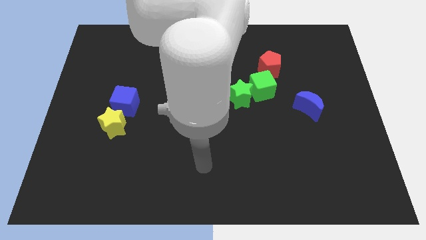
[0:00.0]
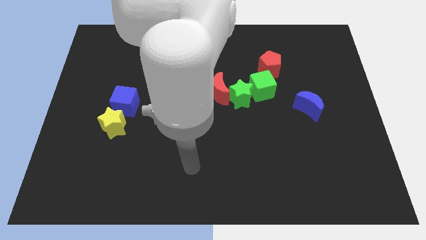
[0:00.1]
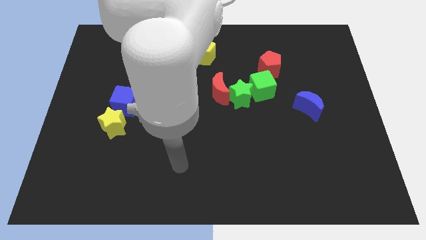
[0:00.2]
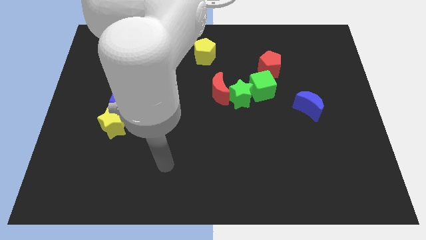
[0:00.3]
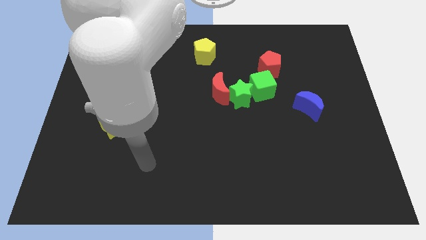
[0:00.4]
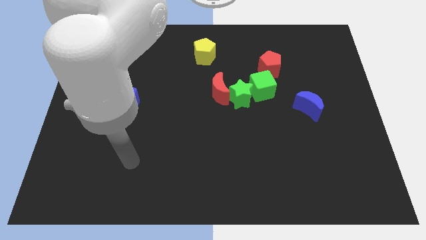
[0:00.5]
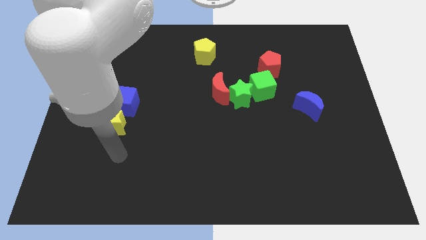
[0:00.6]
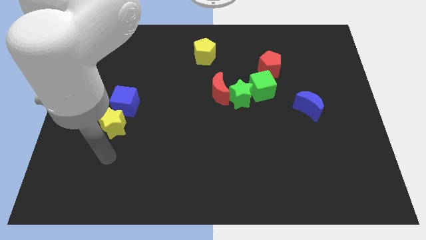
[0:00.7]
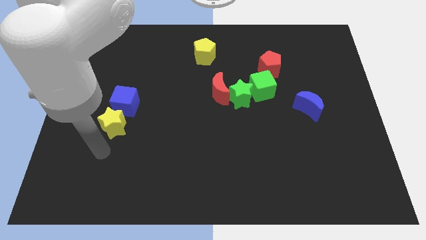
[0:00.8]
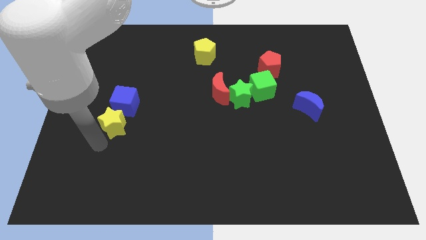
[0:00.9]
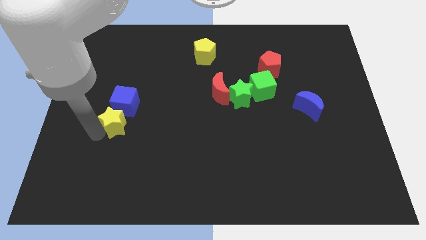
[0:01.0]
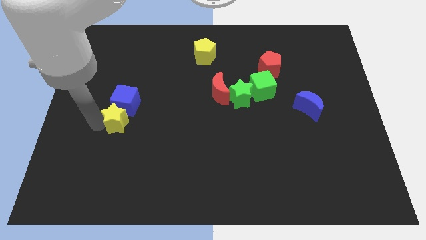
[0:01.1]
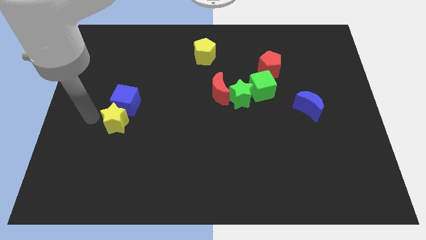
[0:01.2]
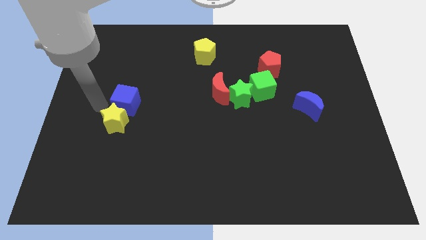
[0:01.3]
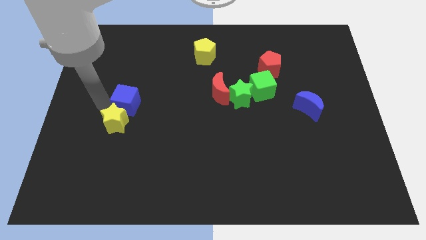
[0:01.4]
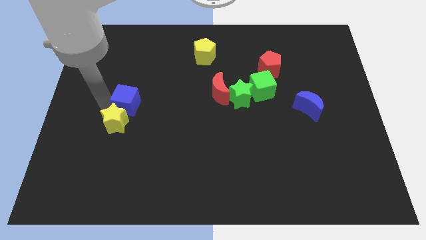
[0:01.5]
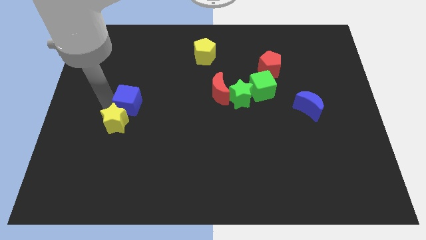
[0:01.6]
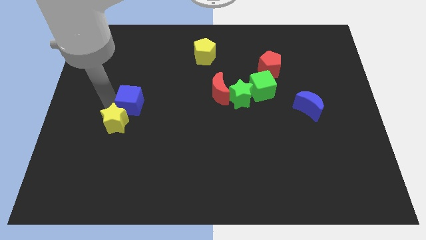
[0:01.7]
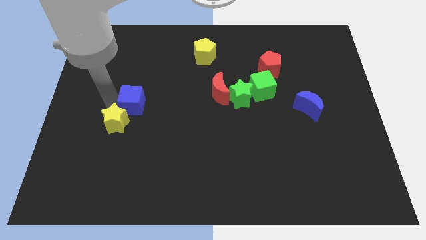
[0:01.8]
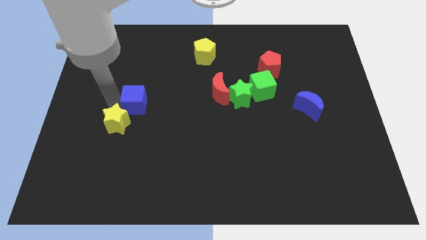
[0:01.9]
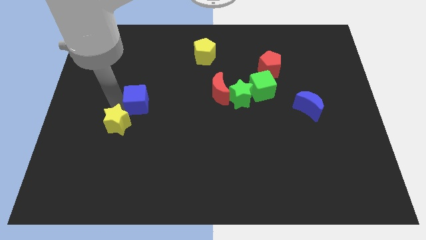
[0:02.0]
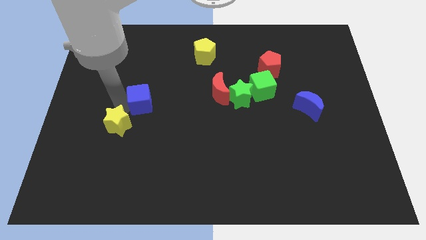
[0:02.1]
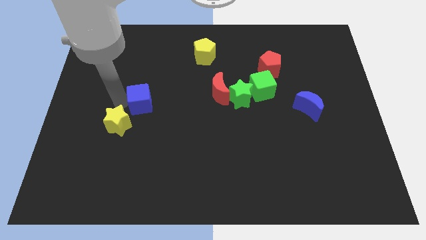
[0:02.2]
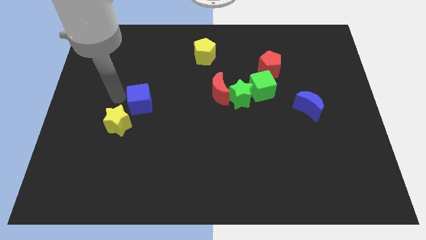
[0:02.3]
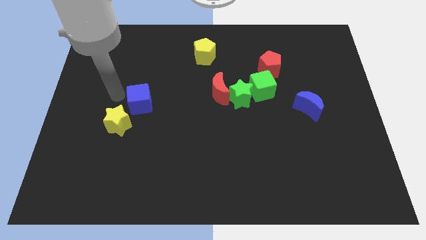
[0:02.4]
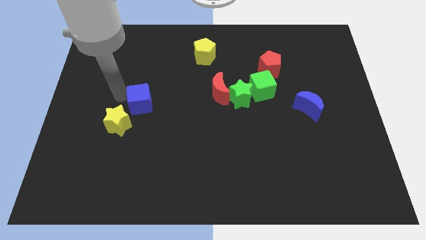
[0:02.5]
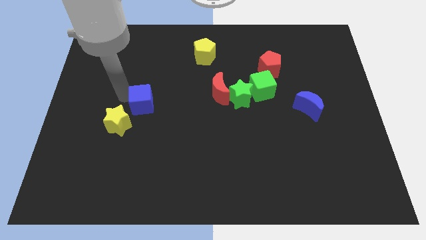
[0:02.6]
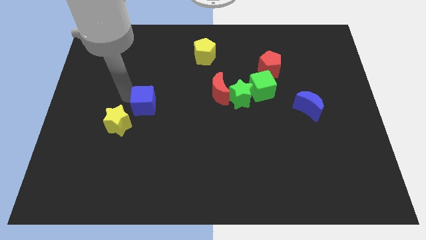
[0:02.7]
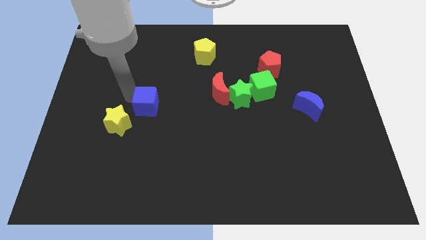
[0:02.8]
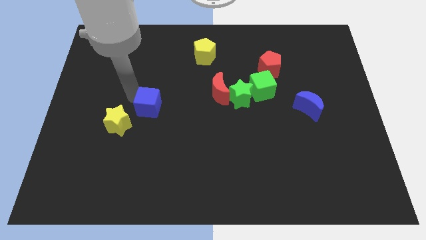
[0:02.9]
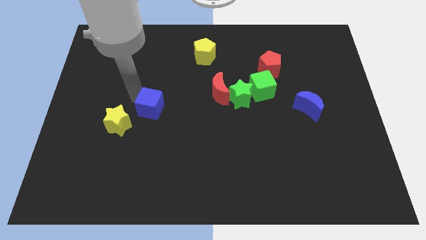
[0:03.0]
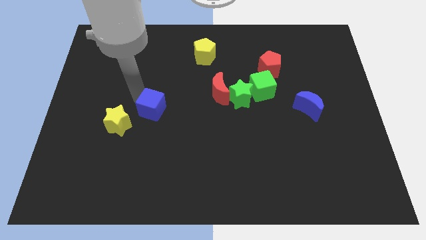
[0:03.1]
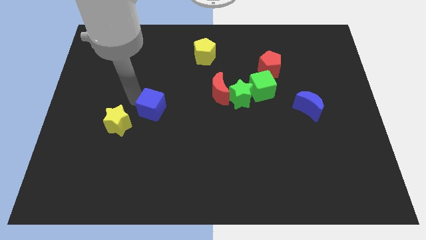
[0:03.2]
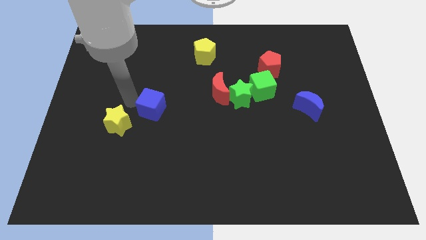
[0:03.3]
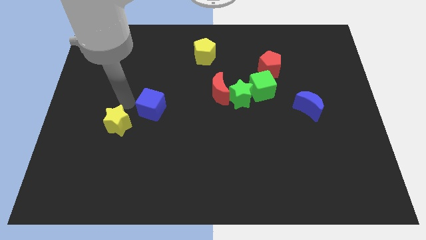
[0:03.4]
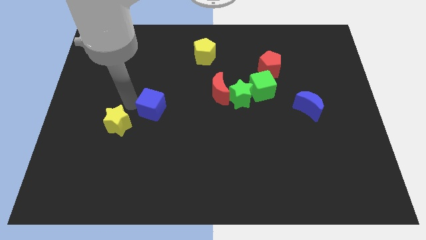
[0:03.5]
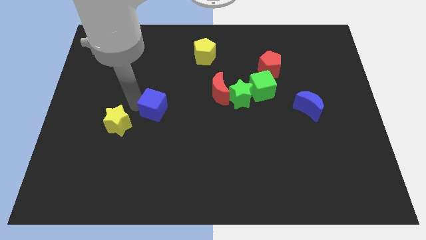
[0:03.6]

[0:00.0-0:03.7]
move the blue cube a bit right

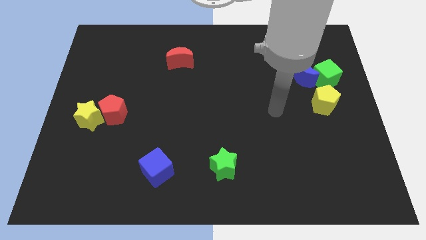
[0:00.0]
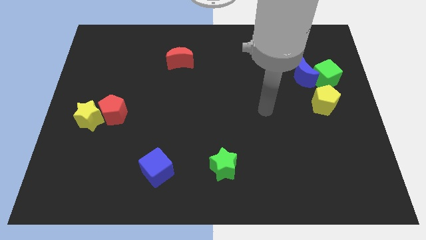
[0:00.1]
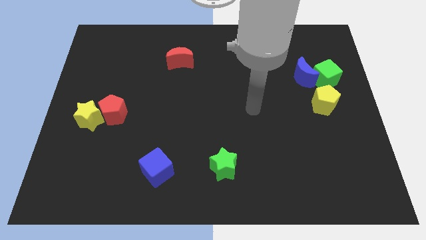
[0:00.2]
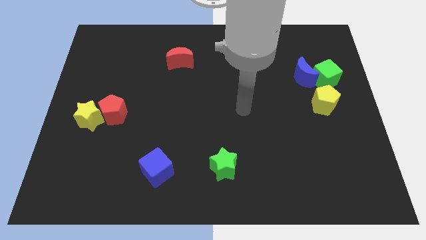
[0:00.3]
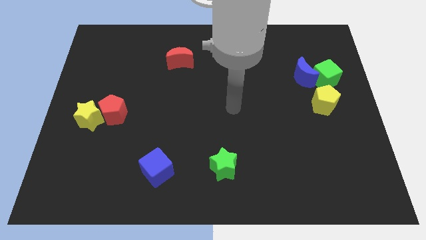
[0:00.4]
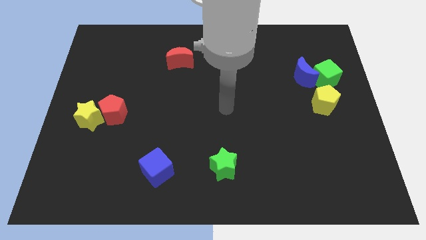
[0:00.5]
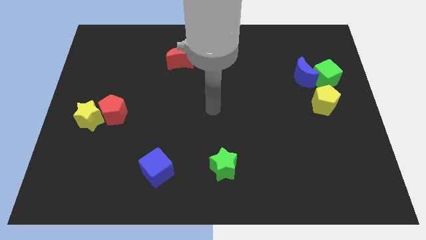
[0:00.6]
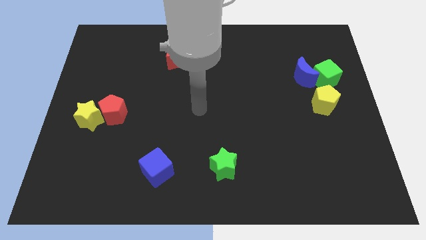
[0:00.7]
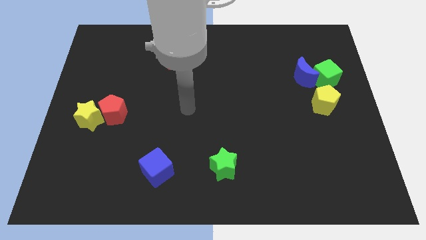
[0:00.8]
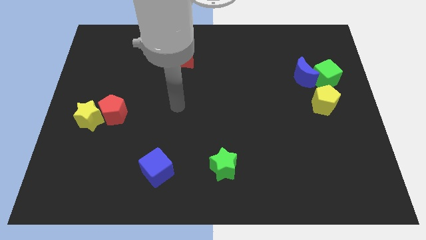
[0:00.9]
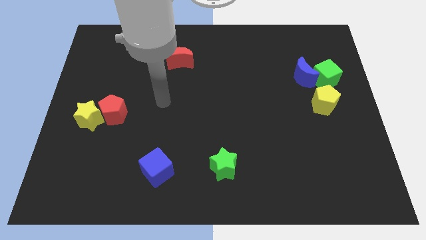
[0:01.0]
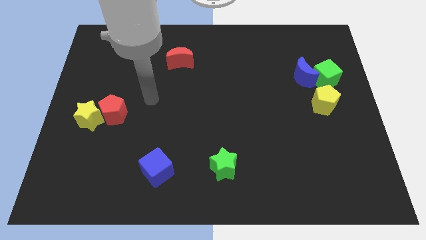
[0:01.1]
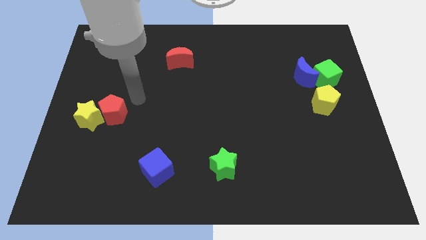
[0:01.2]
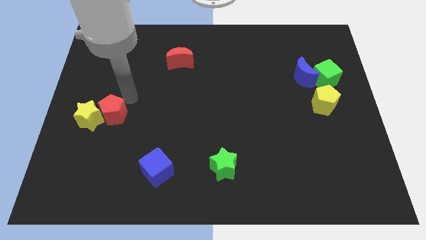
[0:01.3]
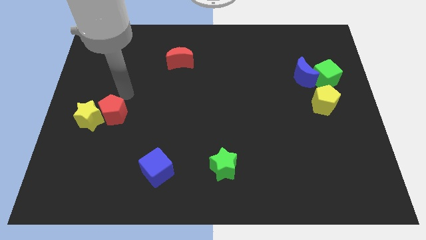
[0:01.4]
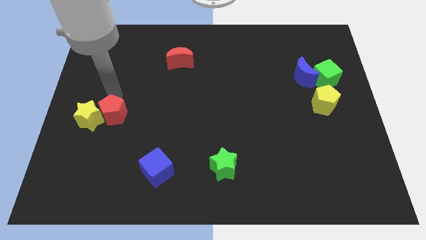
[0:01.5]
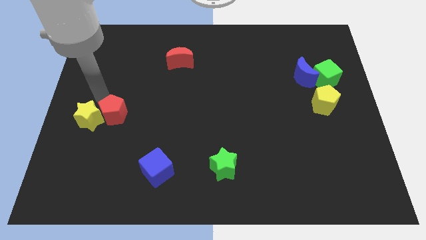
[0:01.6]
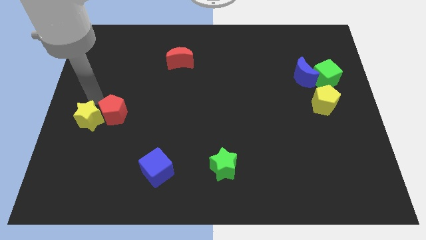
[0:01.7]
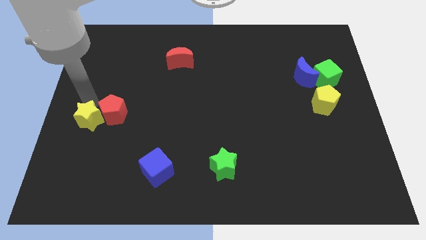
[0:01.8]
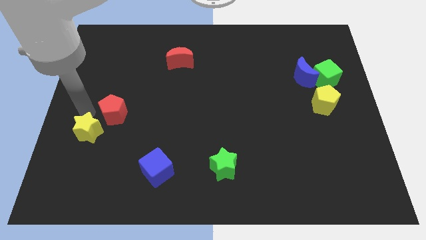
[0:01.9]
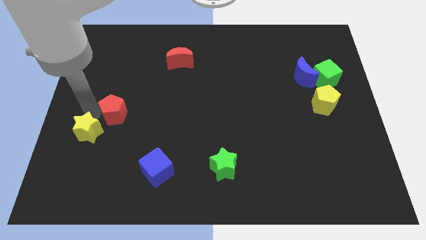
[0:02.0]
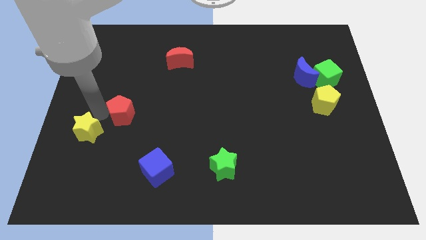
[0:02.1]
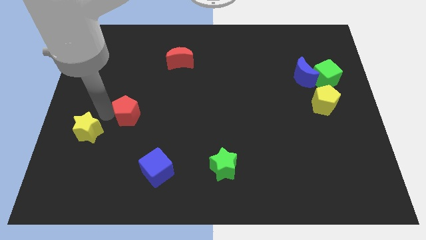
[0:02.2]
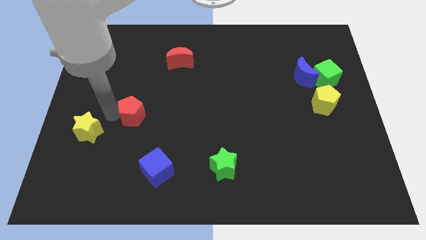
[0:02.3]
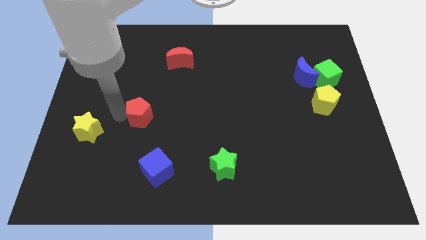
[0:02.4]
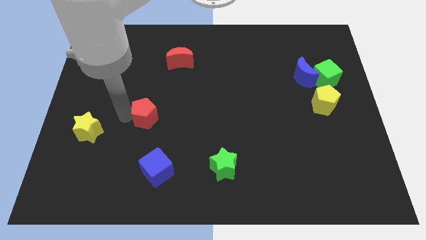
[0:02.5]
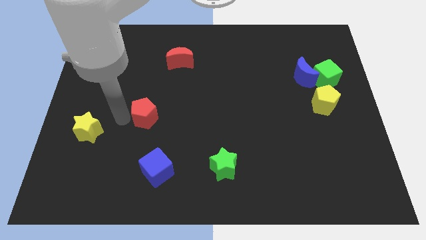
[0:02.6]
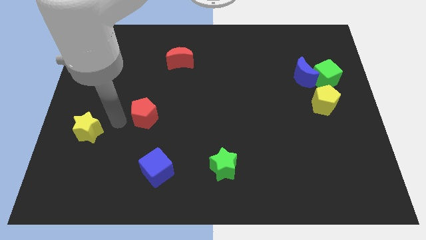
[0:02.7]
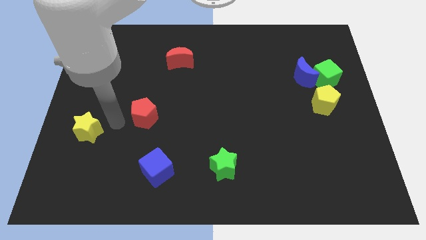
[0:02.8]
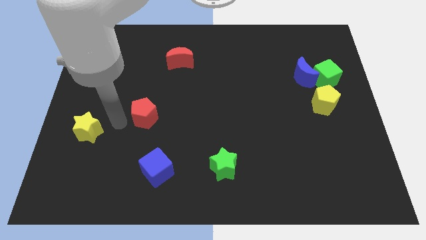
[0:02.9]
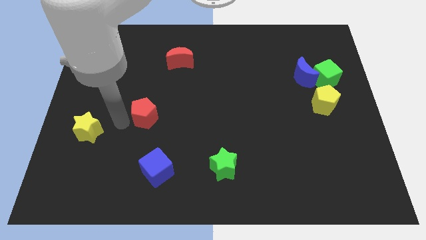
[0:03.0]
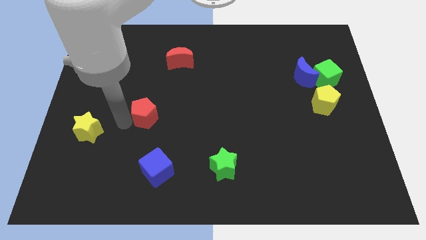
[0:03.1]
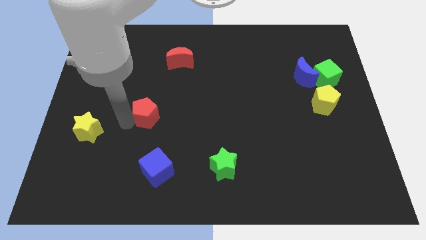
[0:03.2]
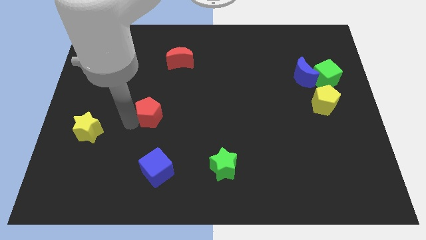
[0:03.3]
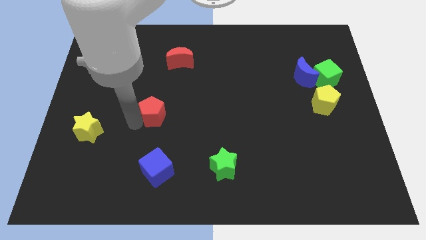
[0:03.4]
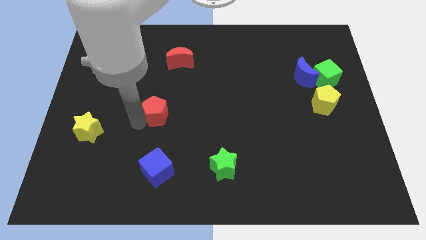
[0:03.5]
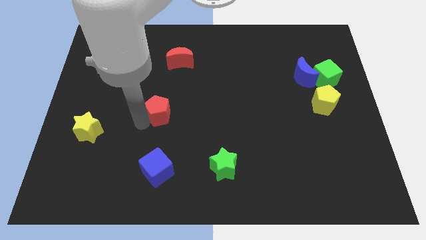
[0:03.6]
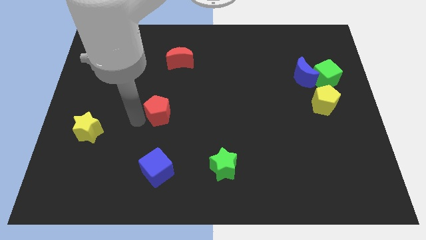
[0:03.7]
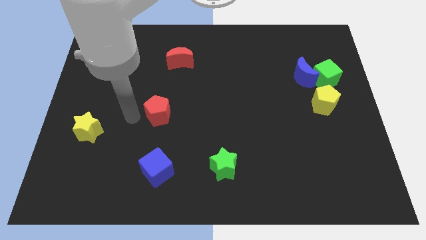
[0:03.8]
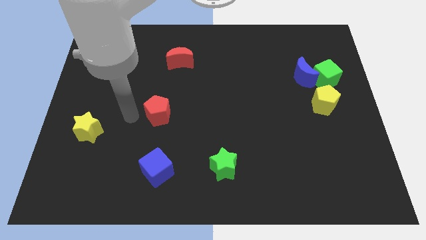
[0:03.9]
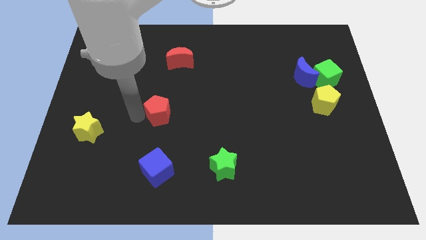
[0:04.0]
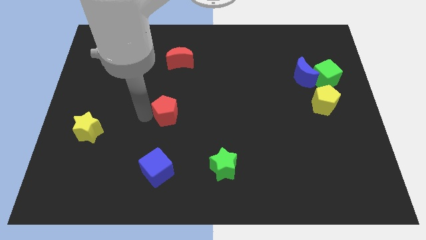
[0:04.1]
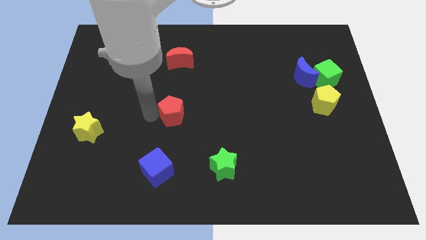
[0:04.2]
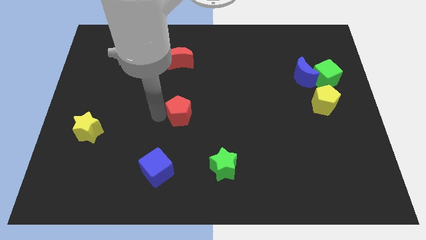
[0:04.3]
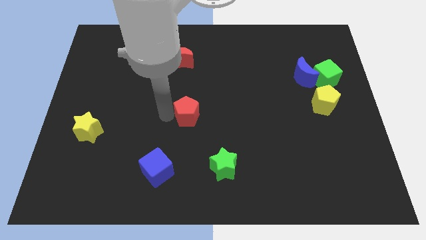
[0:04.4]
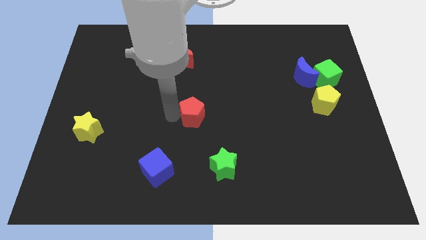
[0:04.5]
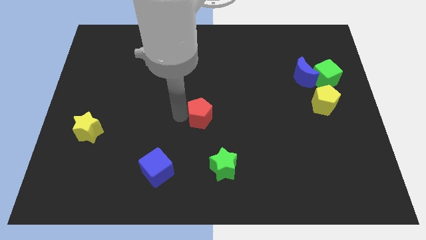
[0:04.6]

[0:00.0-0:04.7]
slide the red pentagon right
